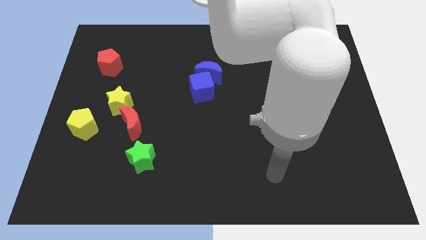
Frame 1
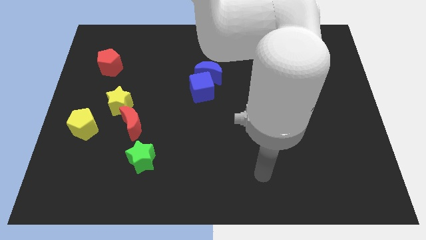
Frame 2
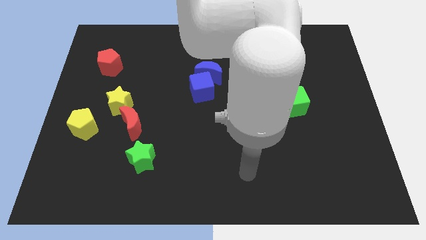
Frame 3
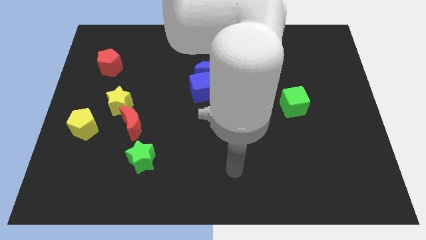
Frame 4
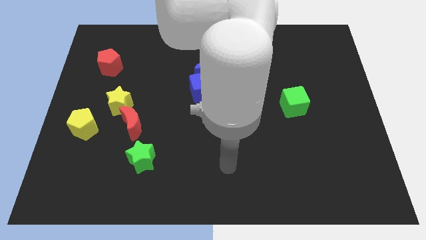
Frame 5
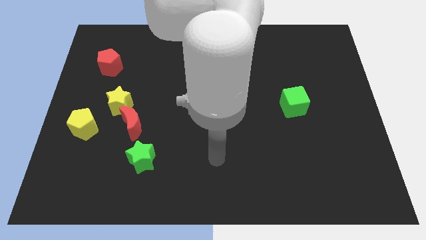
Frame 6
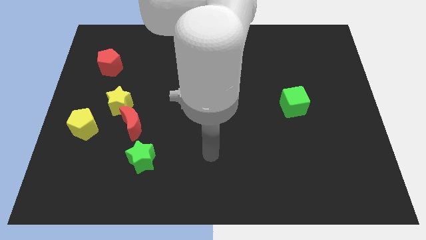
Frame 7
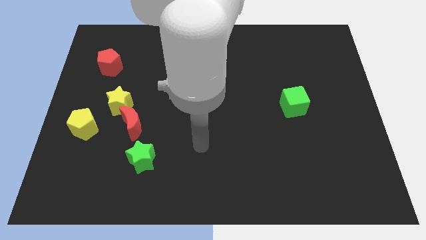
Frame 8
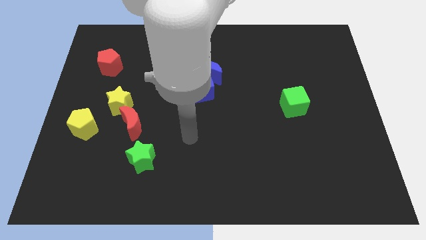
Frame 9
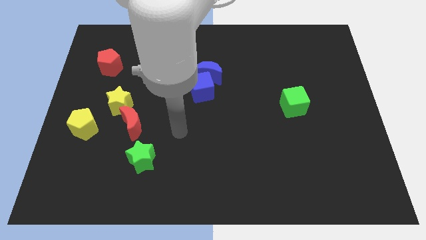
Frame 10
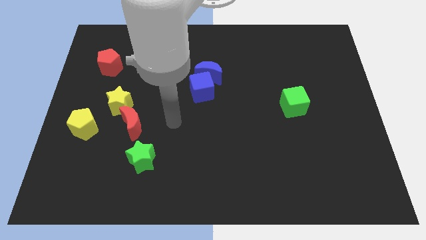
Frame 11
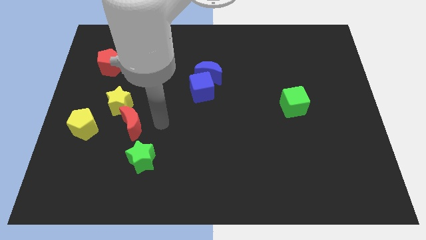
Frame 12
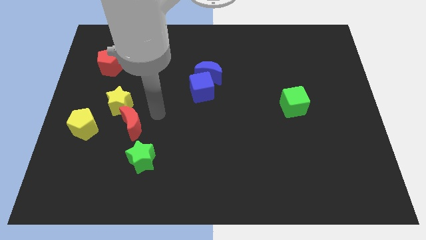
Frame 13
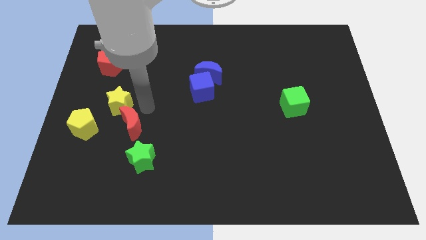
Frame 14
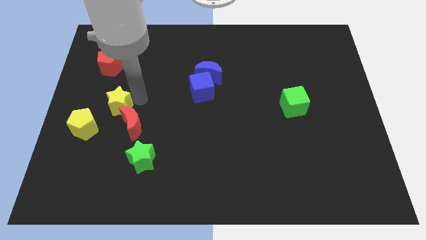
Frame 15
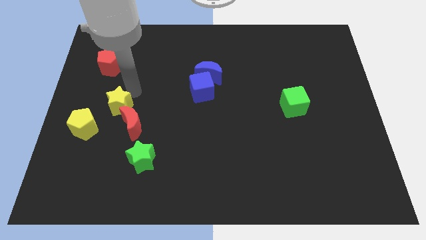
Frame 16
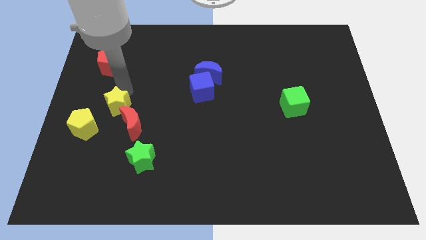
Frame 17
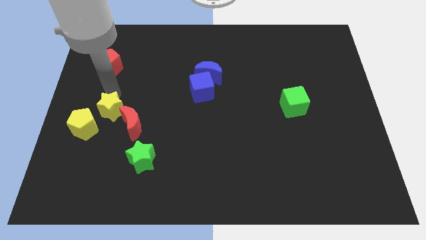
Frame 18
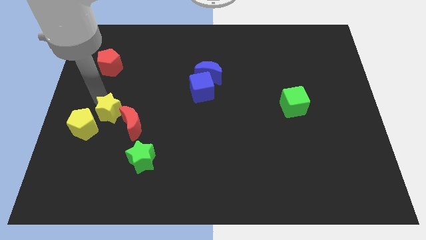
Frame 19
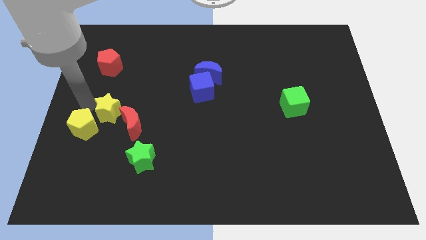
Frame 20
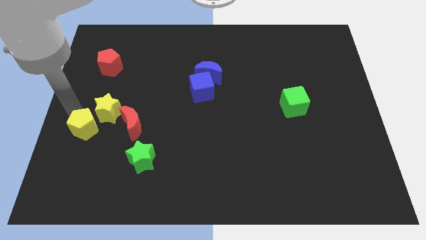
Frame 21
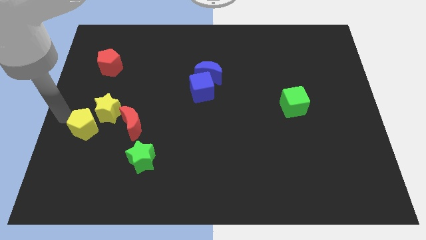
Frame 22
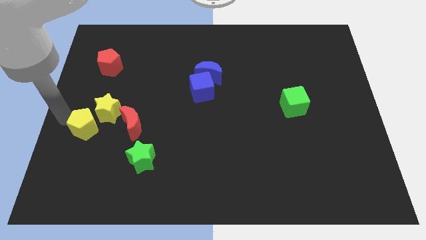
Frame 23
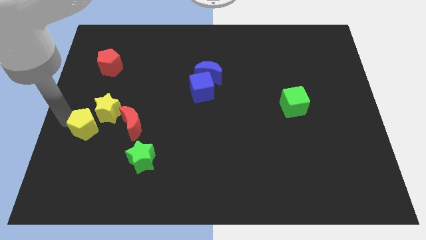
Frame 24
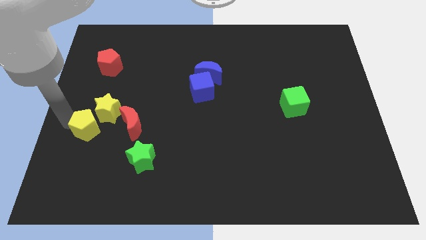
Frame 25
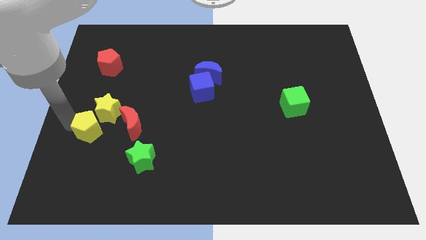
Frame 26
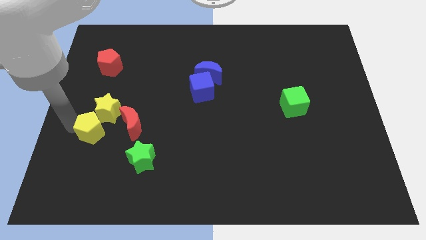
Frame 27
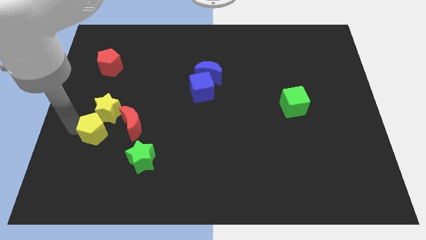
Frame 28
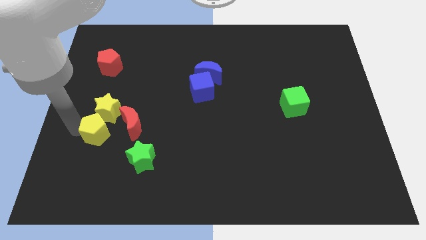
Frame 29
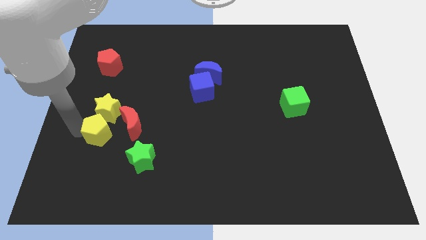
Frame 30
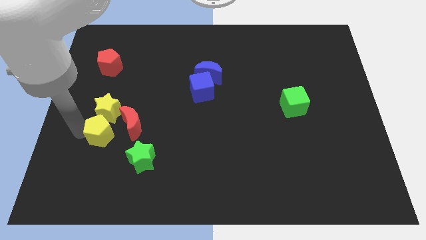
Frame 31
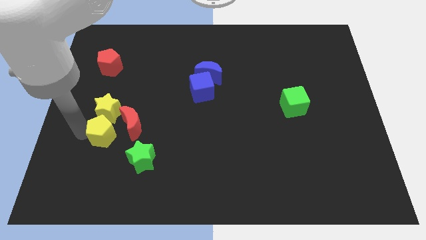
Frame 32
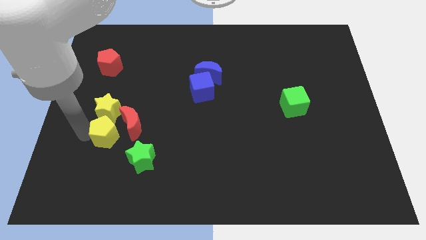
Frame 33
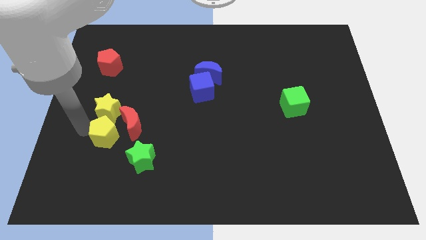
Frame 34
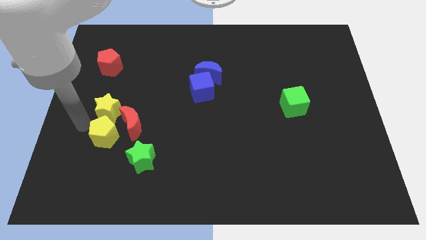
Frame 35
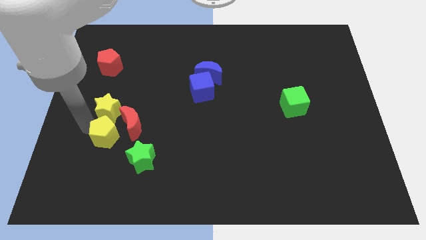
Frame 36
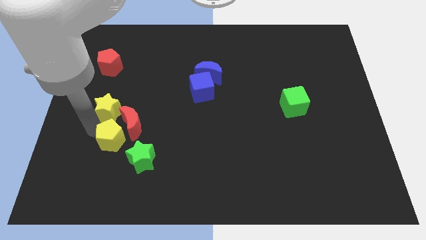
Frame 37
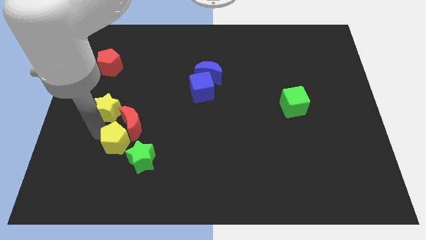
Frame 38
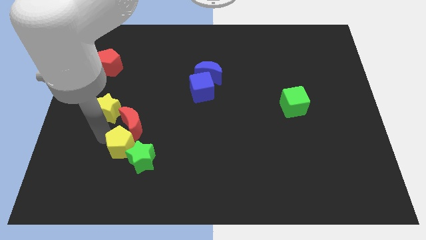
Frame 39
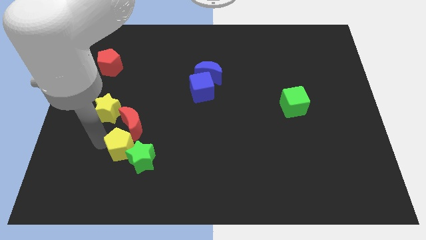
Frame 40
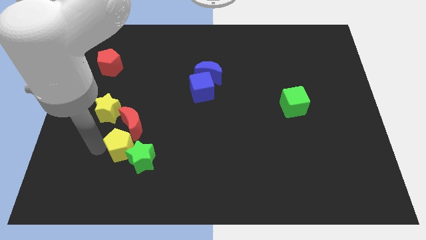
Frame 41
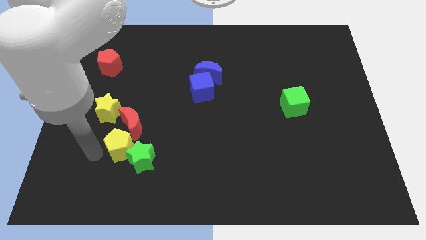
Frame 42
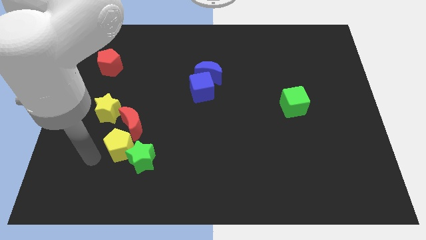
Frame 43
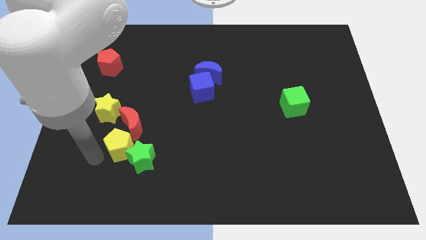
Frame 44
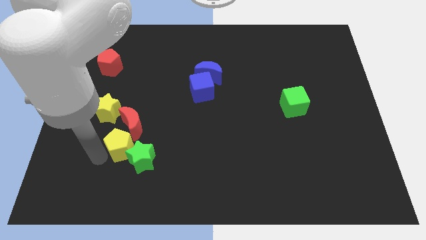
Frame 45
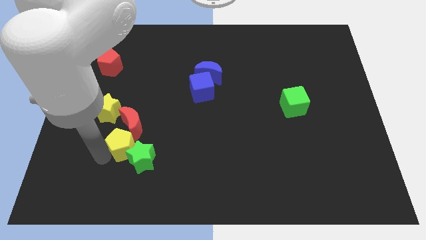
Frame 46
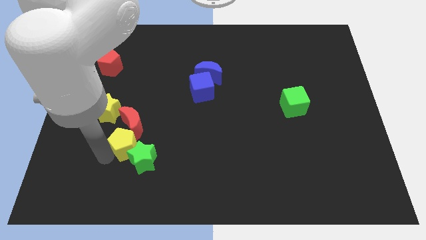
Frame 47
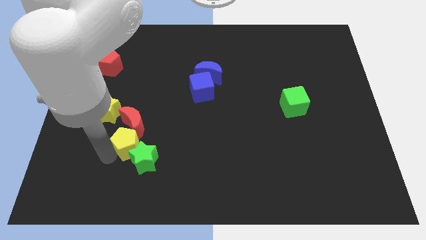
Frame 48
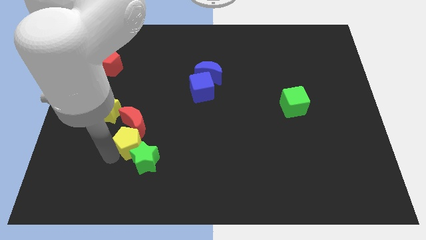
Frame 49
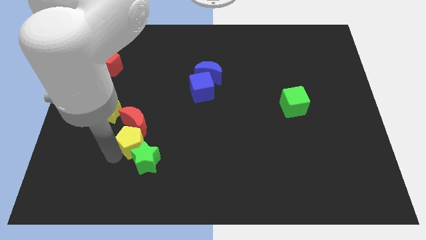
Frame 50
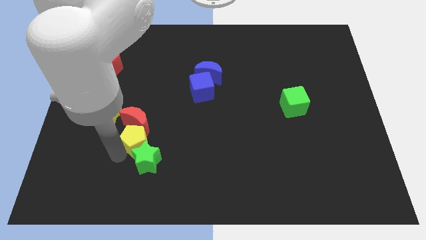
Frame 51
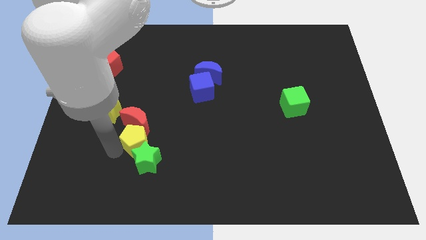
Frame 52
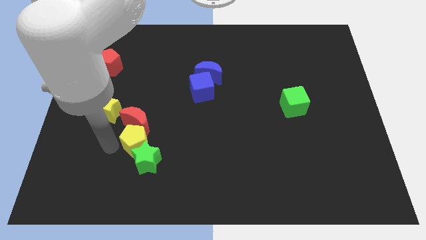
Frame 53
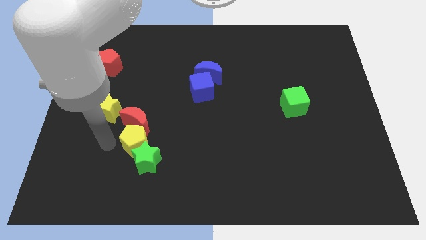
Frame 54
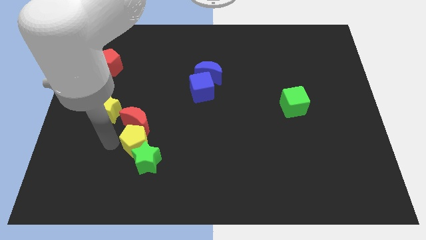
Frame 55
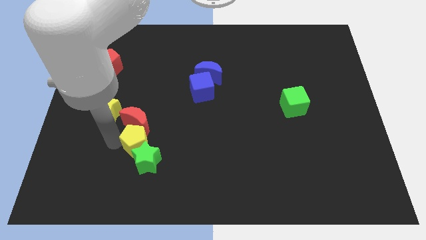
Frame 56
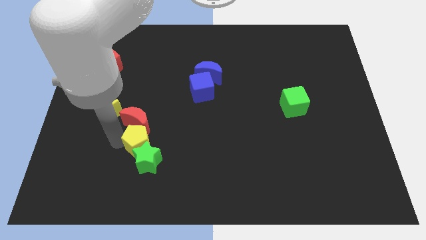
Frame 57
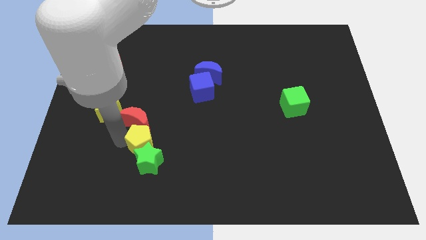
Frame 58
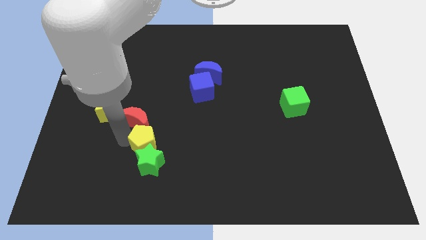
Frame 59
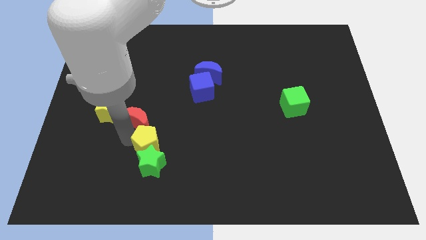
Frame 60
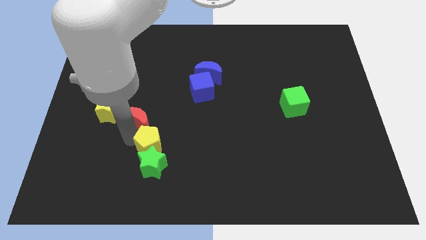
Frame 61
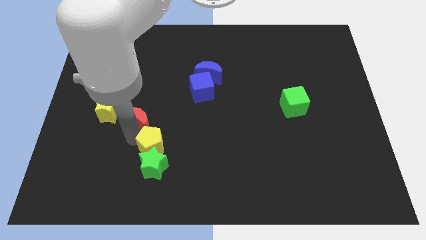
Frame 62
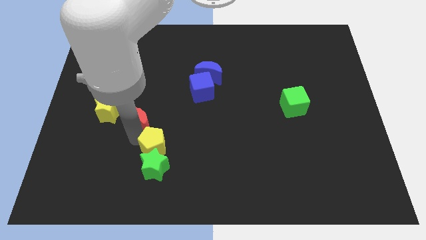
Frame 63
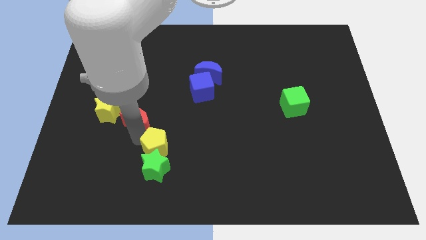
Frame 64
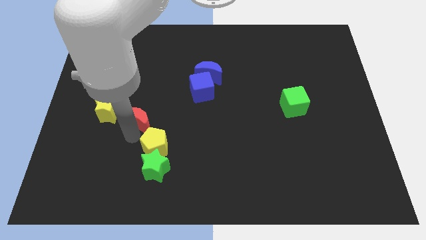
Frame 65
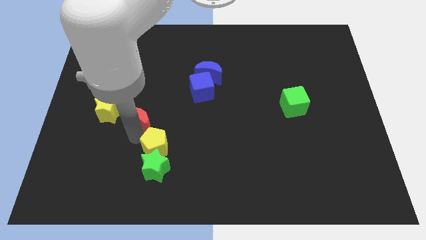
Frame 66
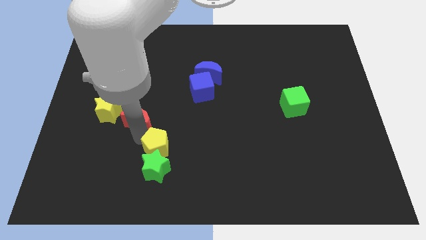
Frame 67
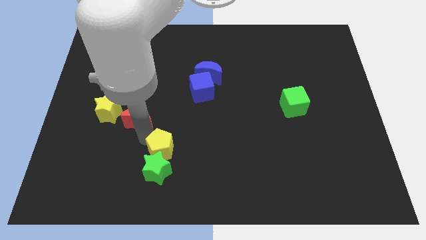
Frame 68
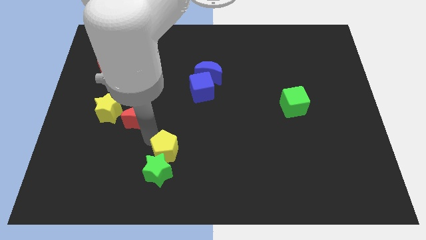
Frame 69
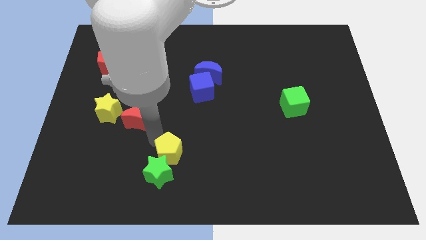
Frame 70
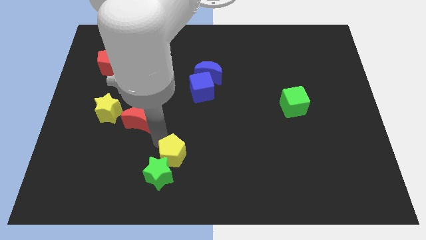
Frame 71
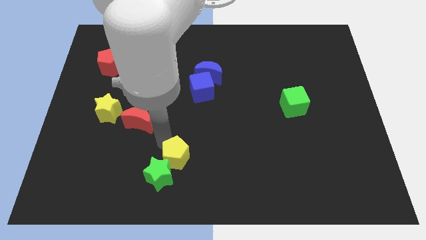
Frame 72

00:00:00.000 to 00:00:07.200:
move the yellow pentagon to the right side of the green star
